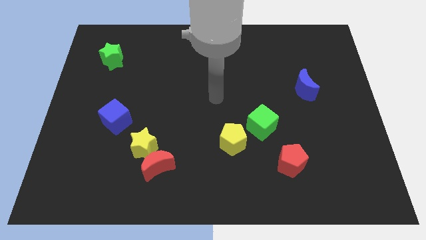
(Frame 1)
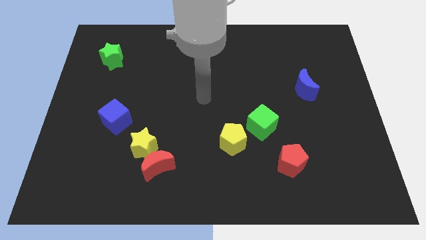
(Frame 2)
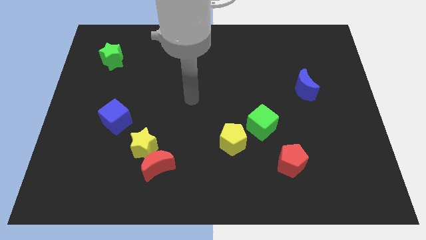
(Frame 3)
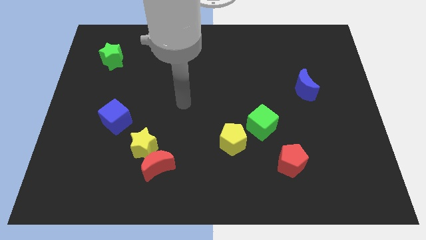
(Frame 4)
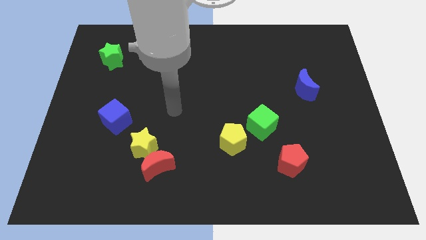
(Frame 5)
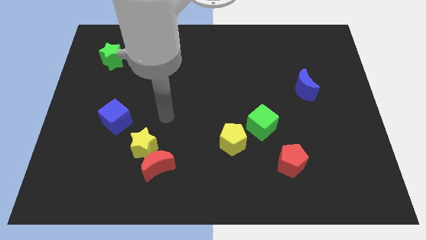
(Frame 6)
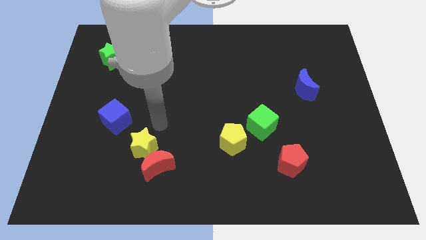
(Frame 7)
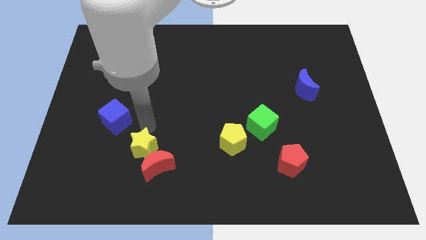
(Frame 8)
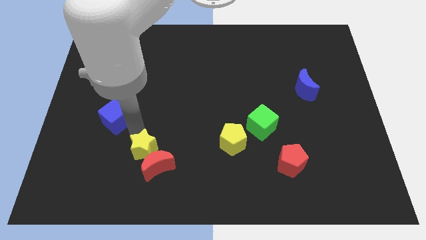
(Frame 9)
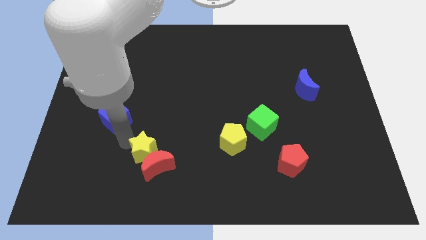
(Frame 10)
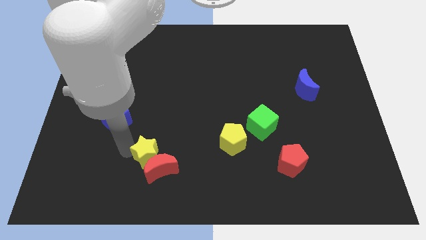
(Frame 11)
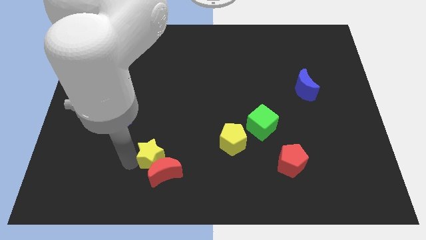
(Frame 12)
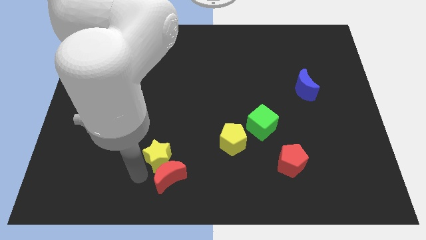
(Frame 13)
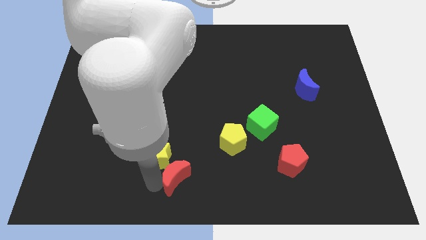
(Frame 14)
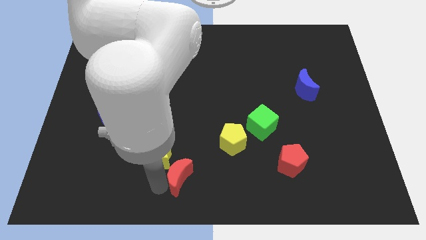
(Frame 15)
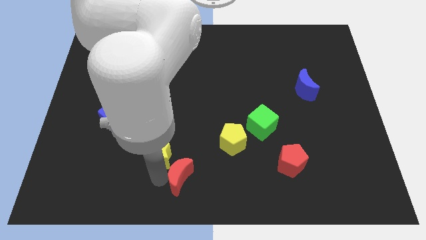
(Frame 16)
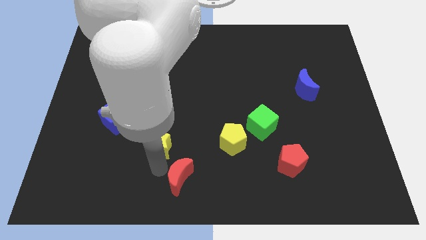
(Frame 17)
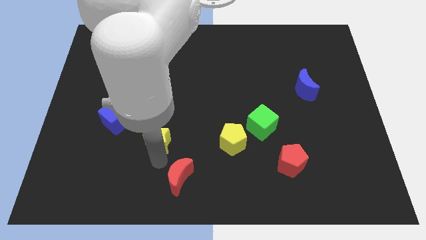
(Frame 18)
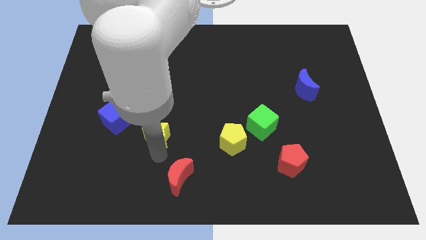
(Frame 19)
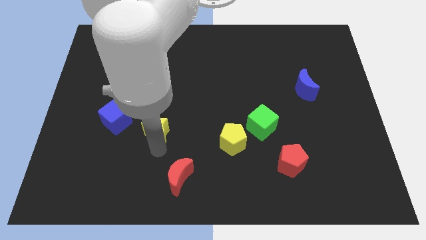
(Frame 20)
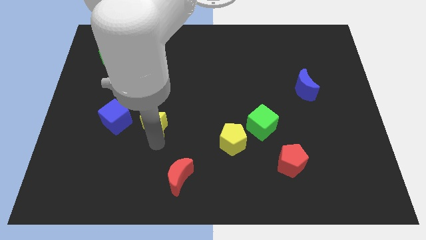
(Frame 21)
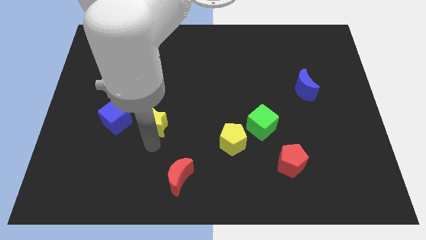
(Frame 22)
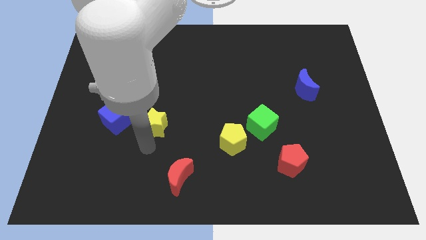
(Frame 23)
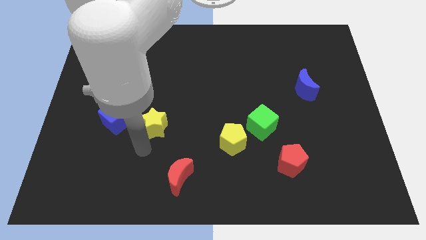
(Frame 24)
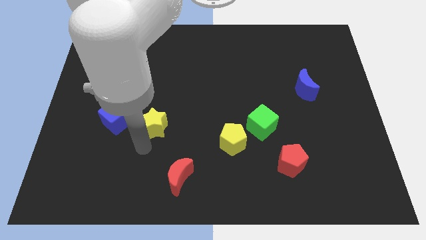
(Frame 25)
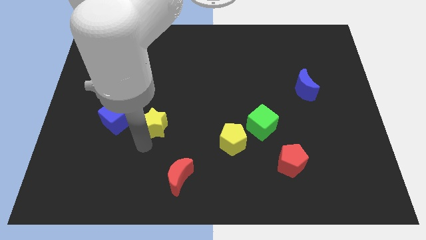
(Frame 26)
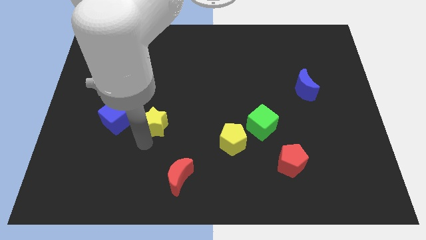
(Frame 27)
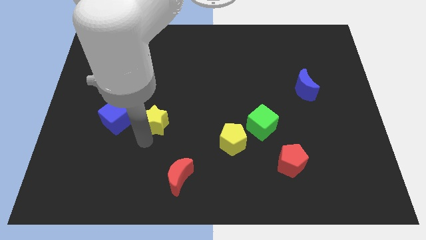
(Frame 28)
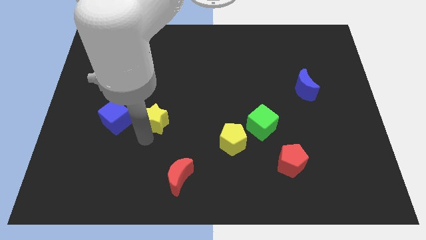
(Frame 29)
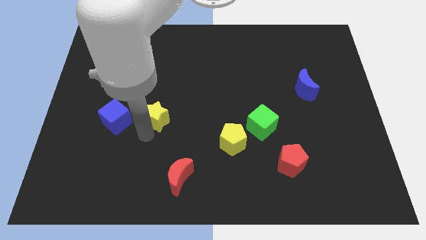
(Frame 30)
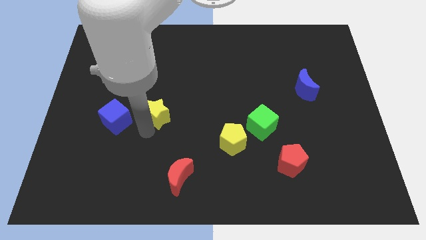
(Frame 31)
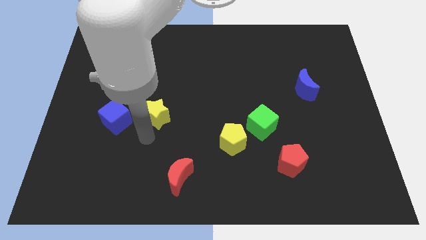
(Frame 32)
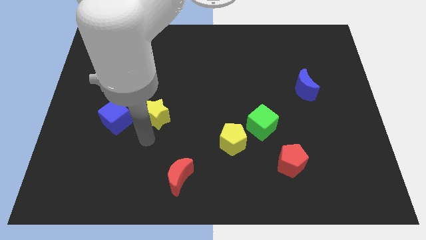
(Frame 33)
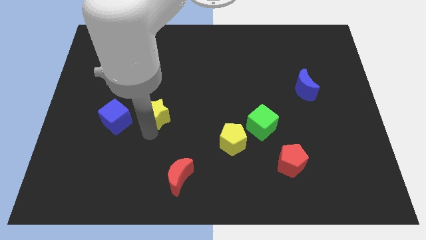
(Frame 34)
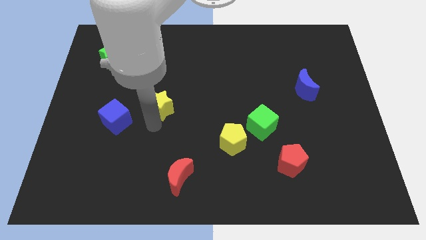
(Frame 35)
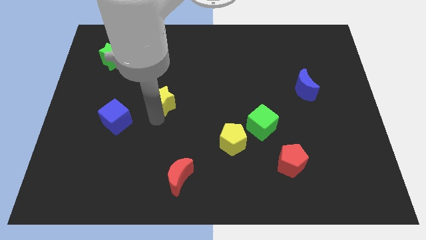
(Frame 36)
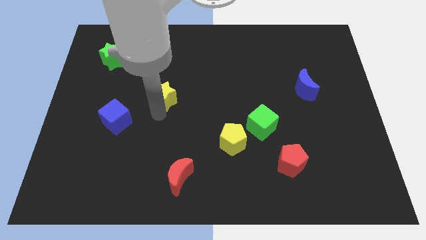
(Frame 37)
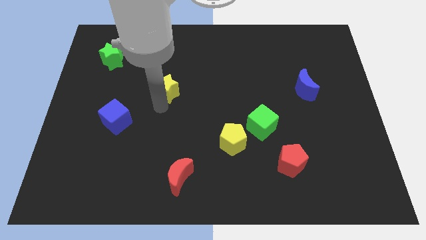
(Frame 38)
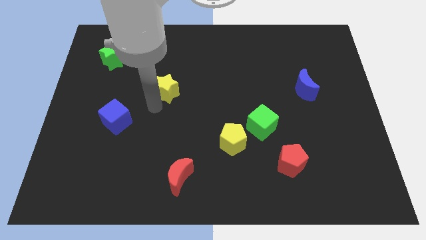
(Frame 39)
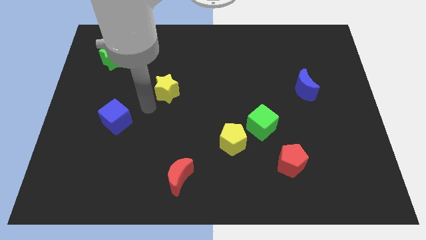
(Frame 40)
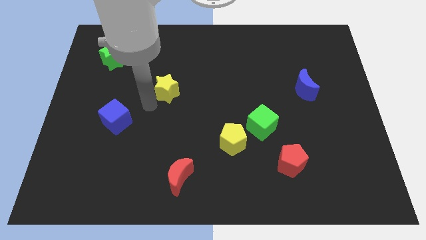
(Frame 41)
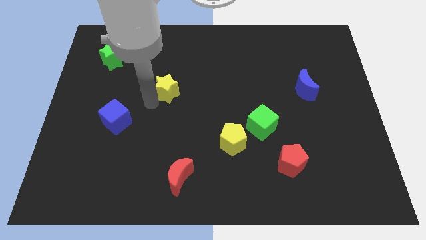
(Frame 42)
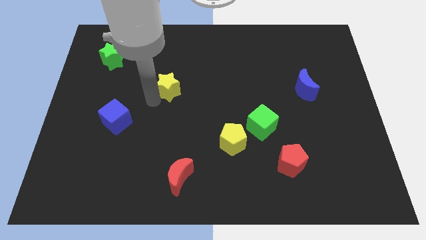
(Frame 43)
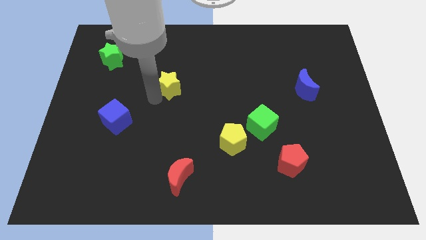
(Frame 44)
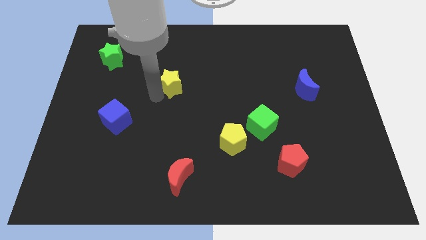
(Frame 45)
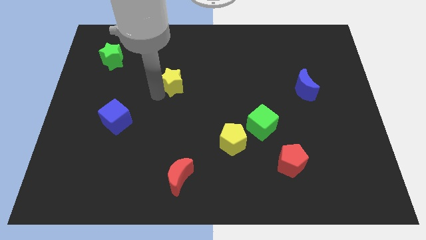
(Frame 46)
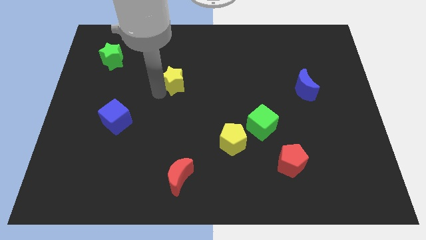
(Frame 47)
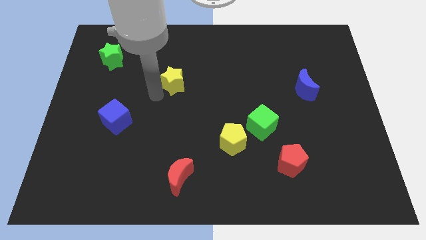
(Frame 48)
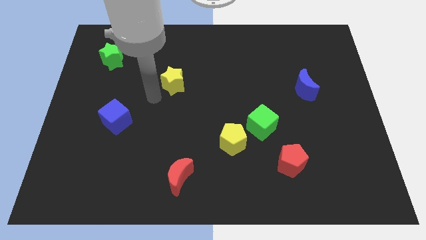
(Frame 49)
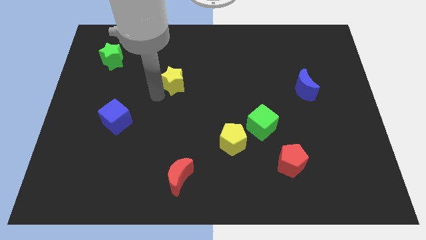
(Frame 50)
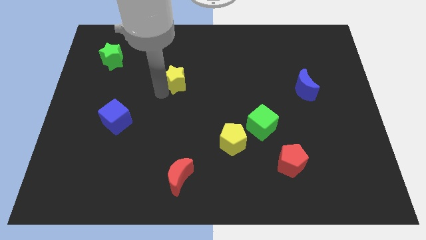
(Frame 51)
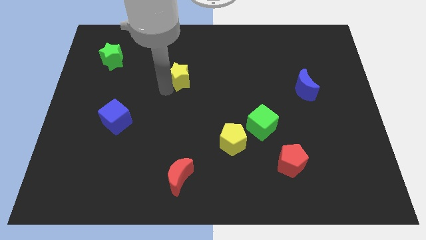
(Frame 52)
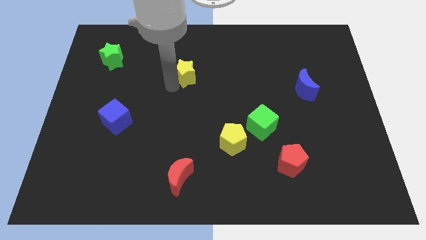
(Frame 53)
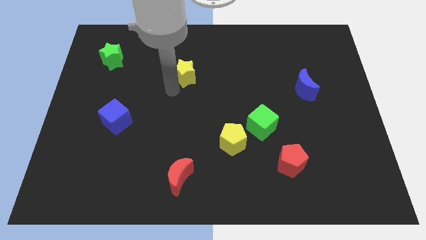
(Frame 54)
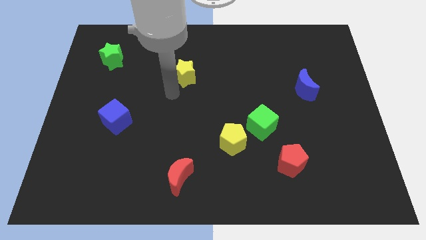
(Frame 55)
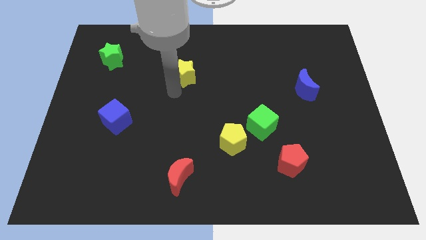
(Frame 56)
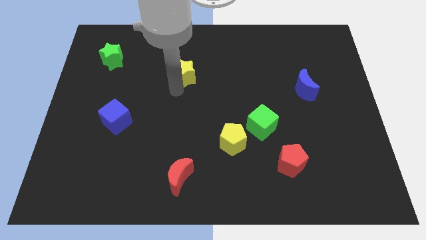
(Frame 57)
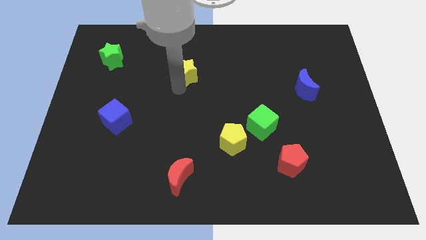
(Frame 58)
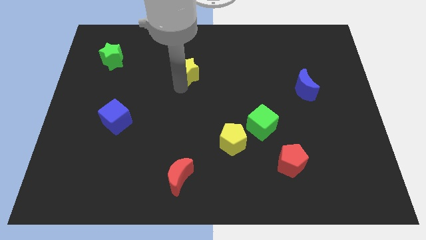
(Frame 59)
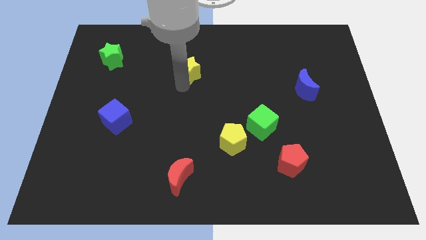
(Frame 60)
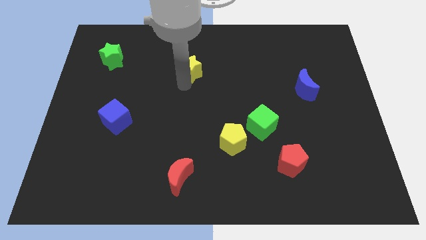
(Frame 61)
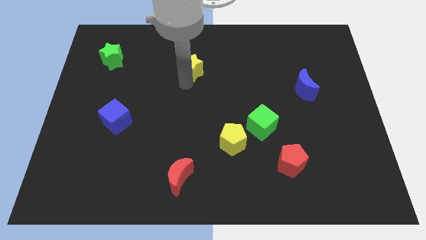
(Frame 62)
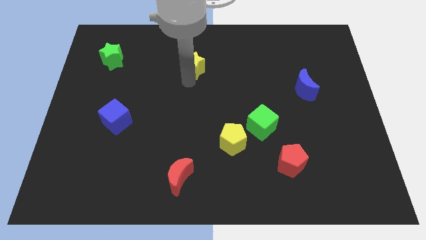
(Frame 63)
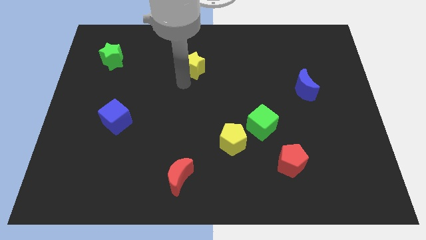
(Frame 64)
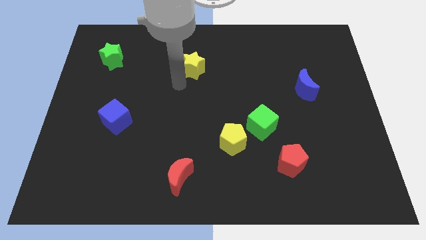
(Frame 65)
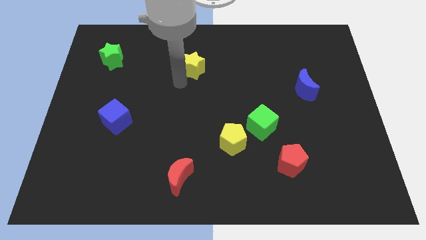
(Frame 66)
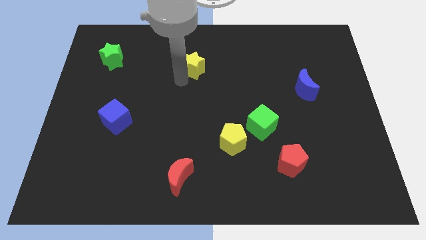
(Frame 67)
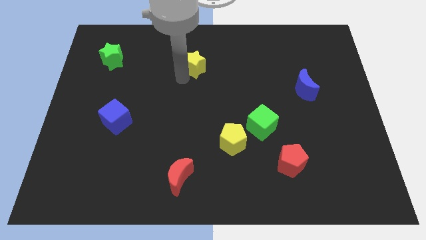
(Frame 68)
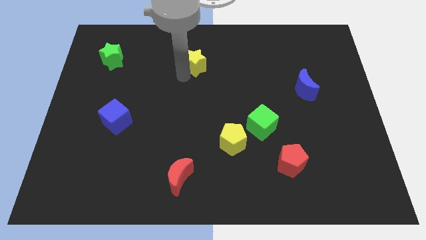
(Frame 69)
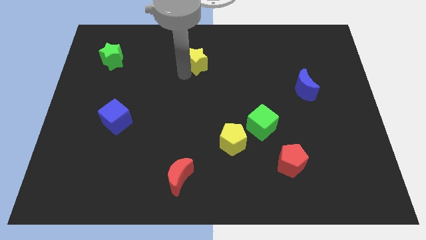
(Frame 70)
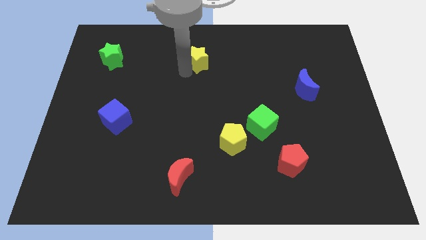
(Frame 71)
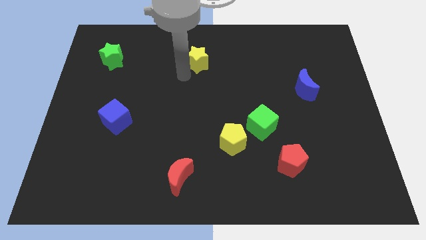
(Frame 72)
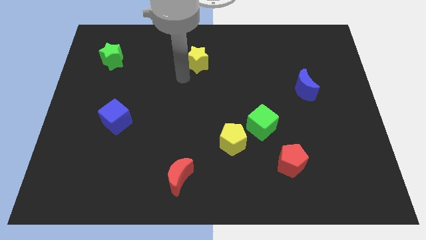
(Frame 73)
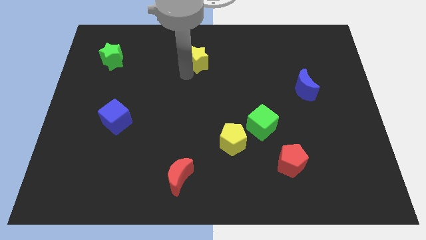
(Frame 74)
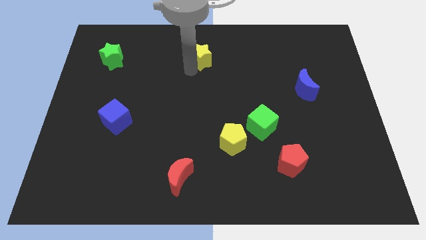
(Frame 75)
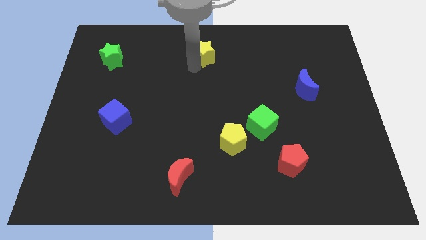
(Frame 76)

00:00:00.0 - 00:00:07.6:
put the yellow star to the top side
